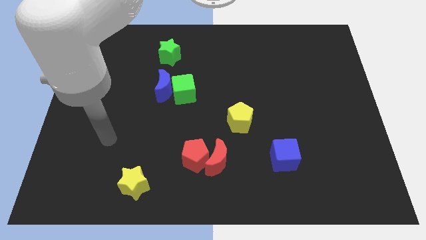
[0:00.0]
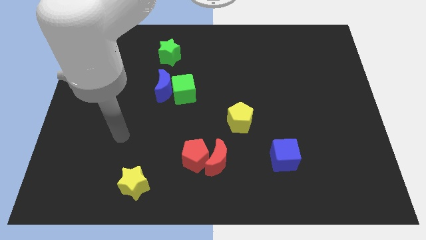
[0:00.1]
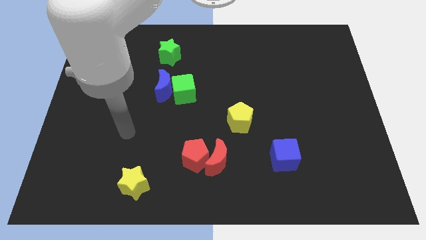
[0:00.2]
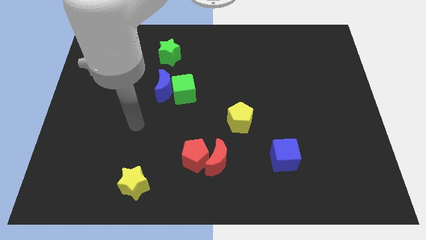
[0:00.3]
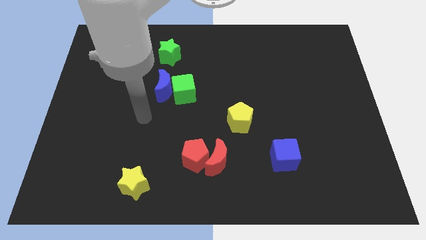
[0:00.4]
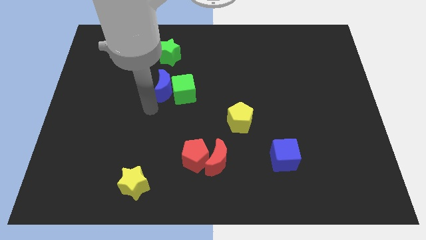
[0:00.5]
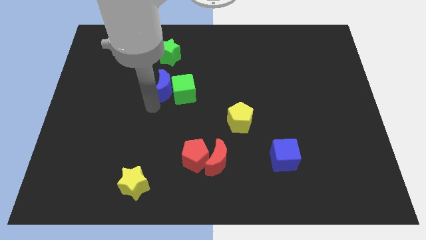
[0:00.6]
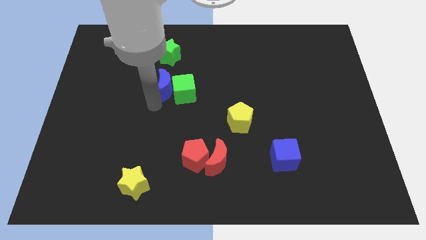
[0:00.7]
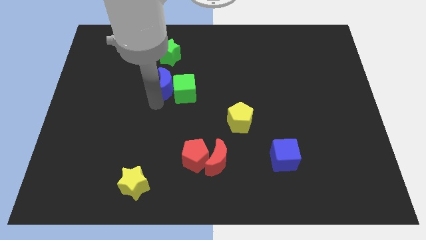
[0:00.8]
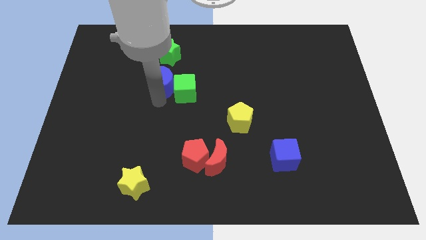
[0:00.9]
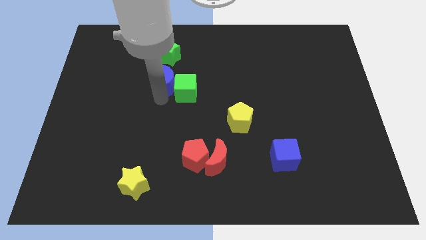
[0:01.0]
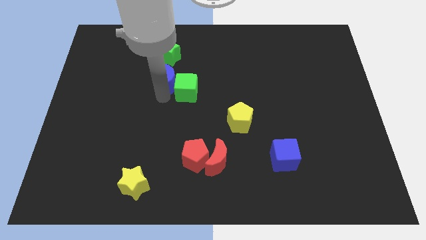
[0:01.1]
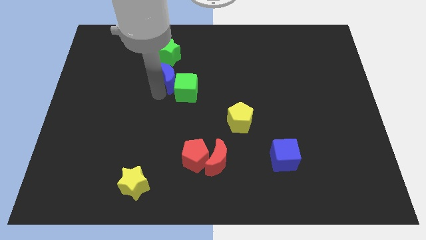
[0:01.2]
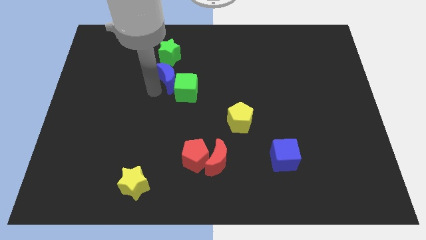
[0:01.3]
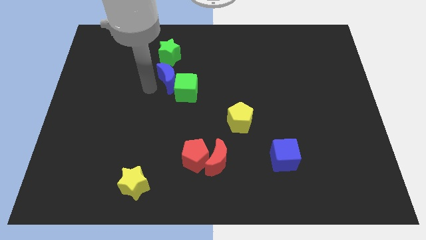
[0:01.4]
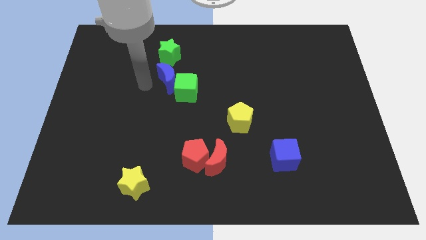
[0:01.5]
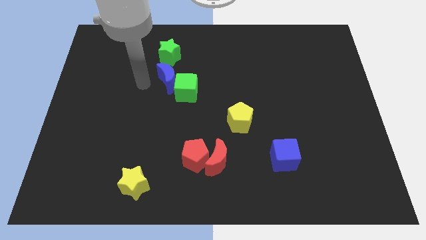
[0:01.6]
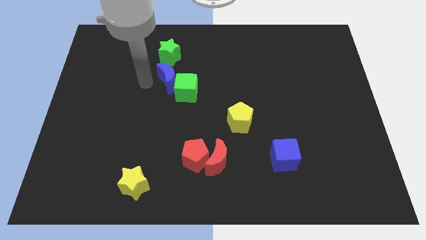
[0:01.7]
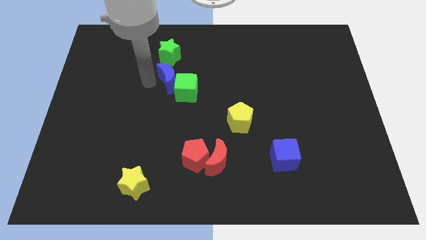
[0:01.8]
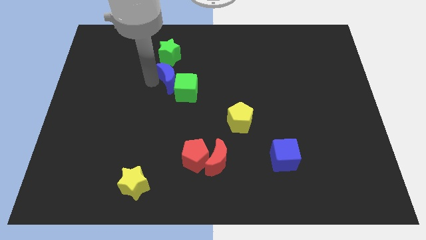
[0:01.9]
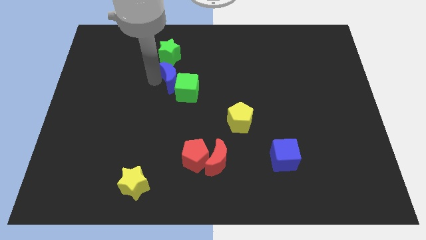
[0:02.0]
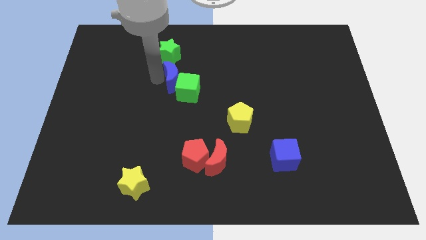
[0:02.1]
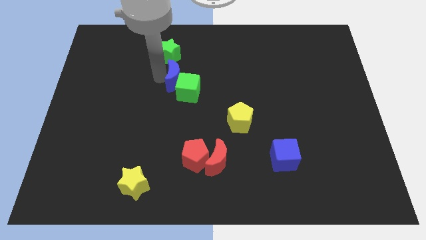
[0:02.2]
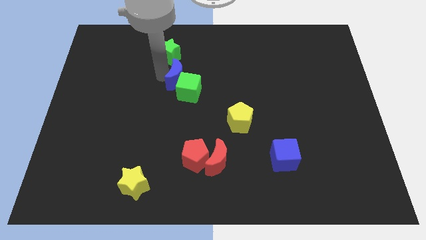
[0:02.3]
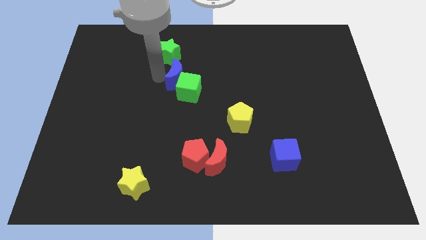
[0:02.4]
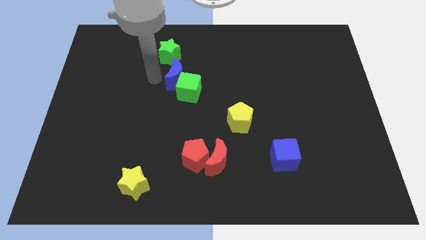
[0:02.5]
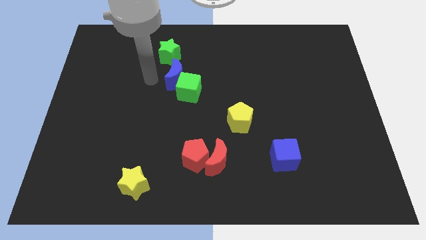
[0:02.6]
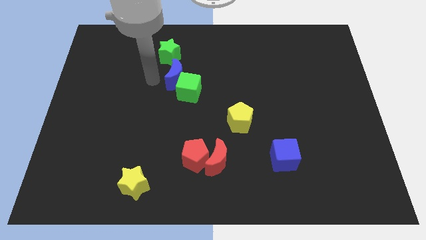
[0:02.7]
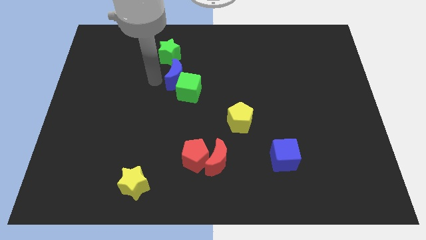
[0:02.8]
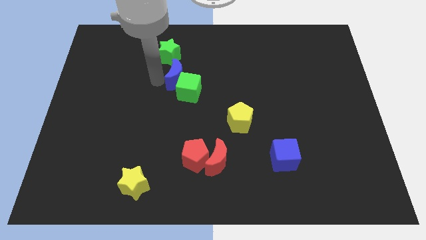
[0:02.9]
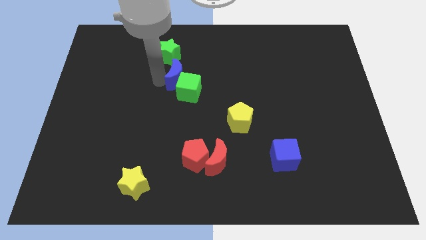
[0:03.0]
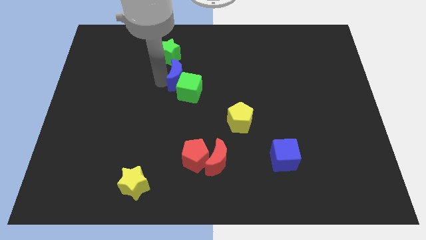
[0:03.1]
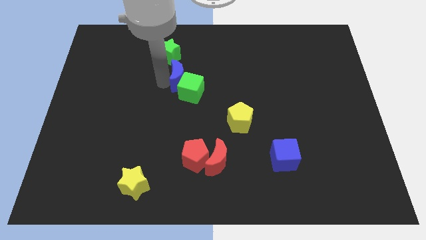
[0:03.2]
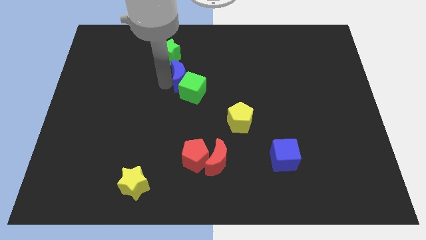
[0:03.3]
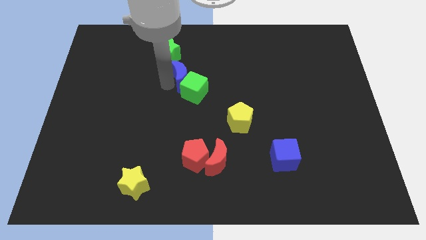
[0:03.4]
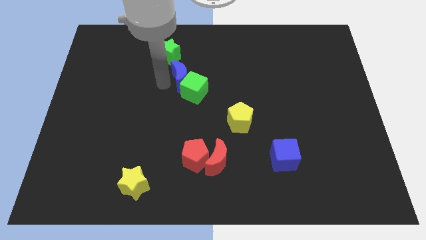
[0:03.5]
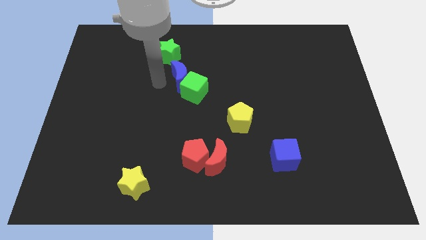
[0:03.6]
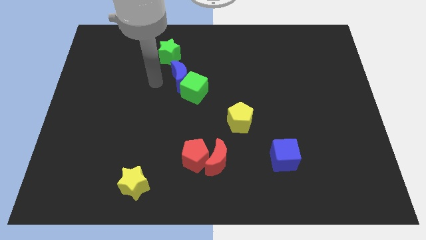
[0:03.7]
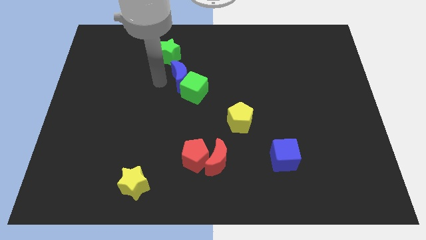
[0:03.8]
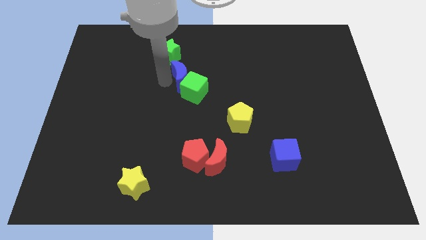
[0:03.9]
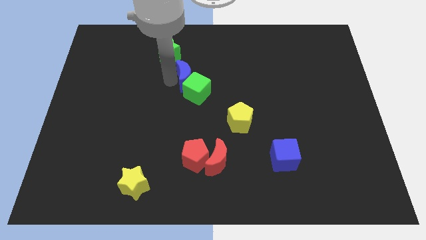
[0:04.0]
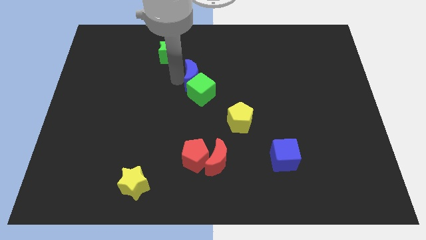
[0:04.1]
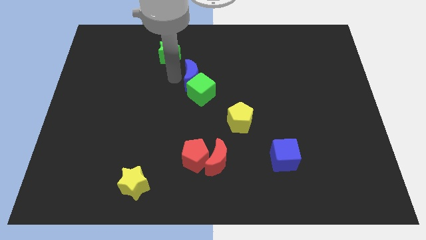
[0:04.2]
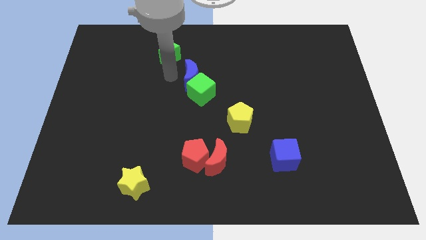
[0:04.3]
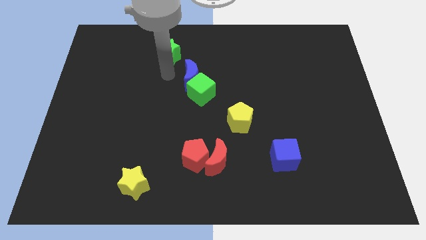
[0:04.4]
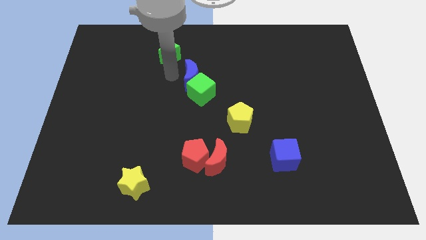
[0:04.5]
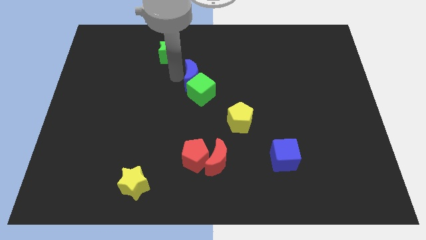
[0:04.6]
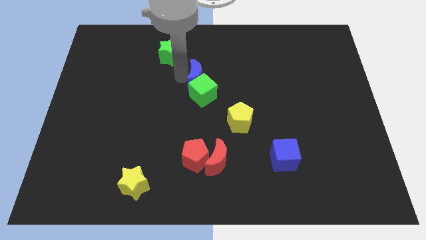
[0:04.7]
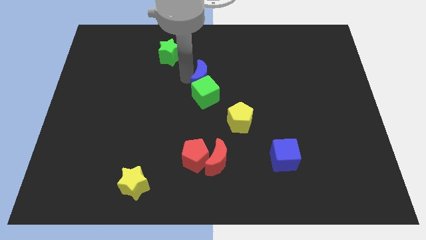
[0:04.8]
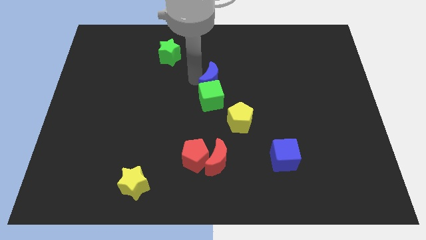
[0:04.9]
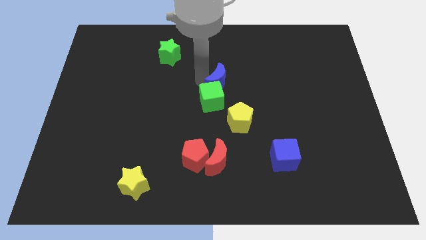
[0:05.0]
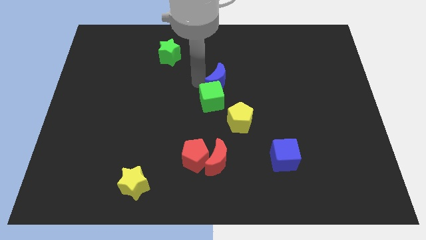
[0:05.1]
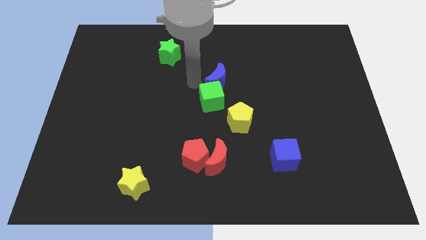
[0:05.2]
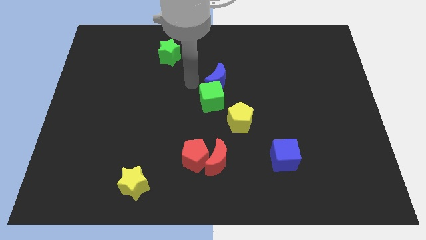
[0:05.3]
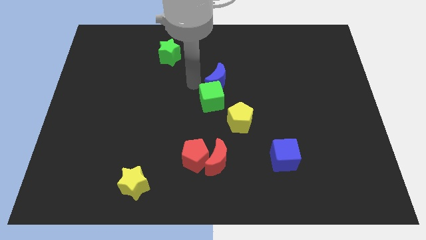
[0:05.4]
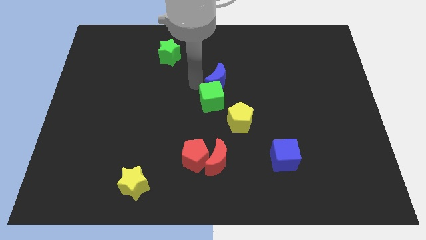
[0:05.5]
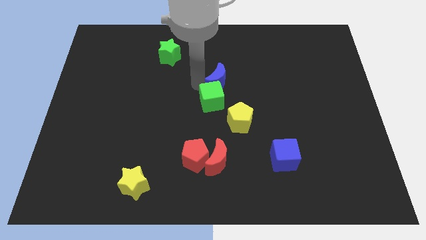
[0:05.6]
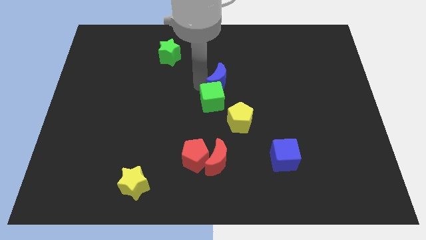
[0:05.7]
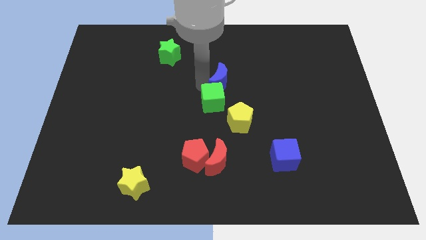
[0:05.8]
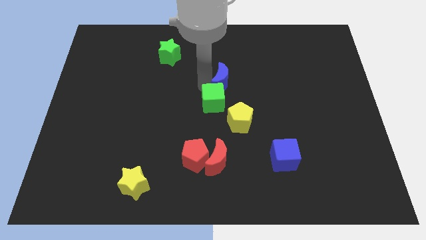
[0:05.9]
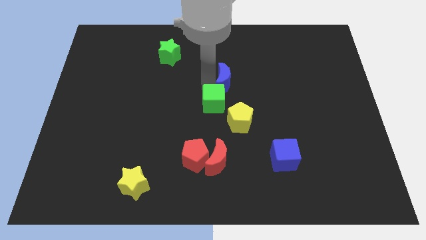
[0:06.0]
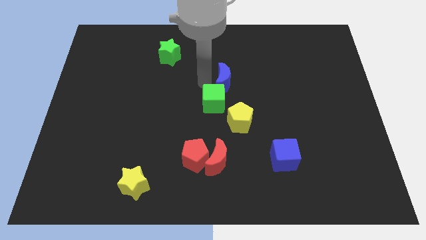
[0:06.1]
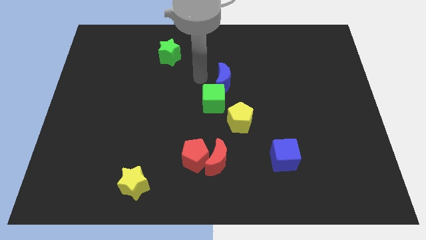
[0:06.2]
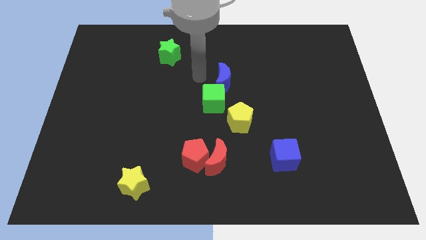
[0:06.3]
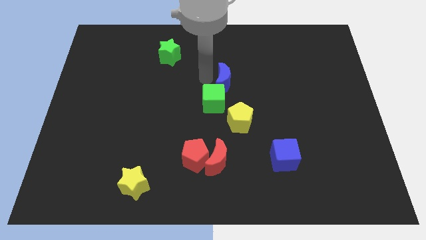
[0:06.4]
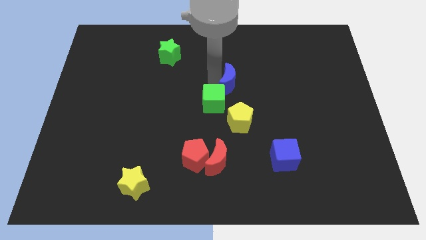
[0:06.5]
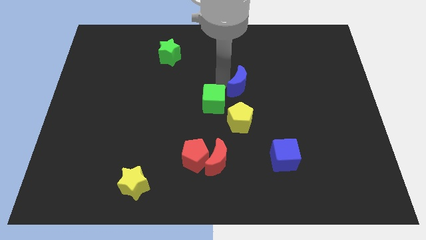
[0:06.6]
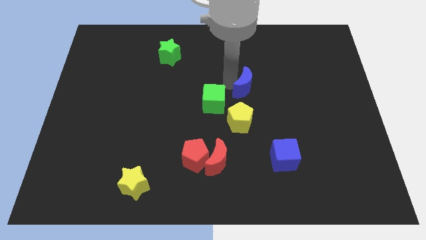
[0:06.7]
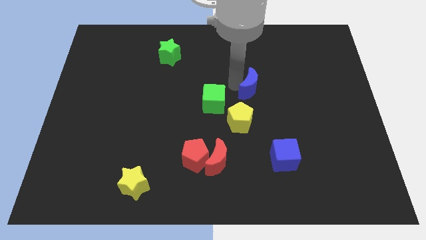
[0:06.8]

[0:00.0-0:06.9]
move the blue moon to the right

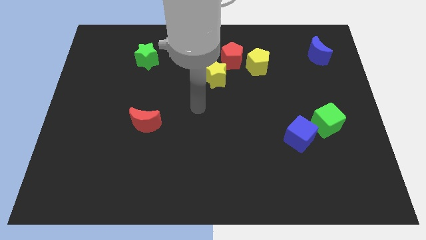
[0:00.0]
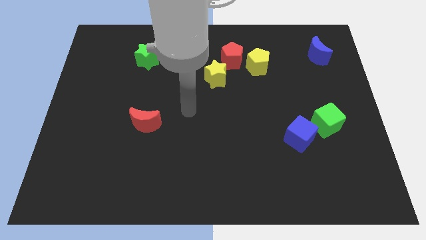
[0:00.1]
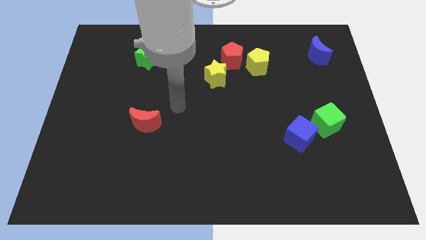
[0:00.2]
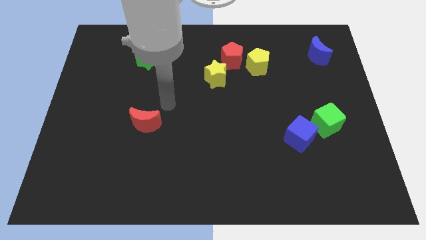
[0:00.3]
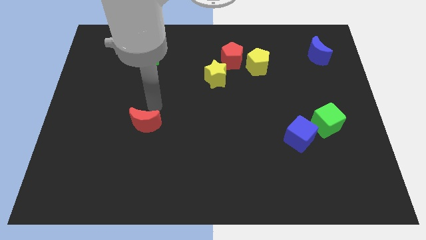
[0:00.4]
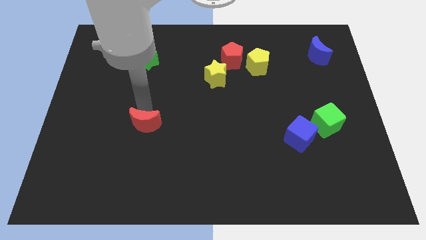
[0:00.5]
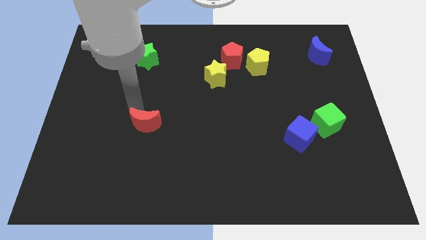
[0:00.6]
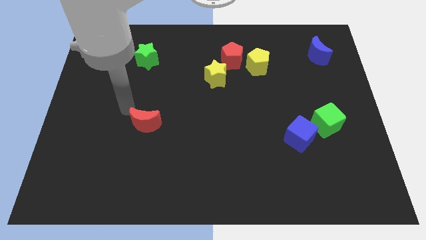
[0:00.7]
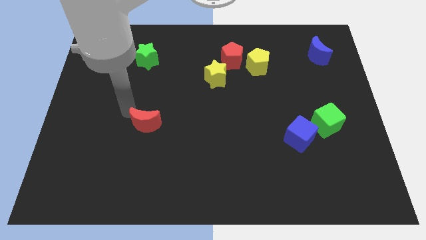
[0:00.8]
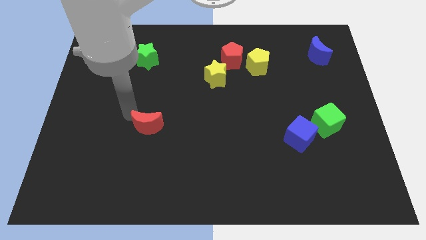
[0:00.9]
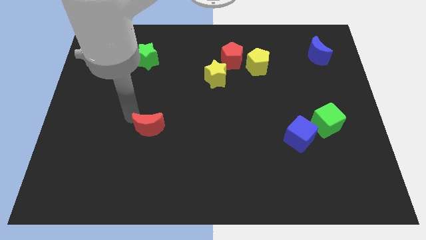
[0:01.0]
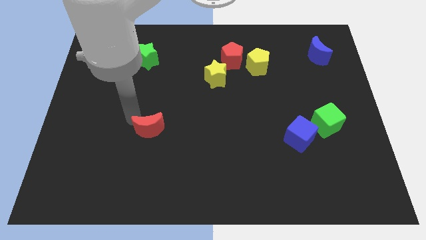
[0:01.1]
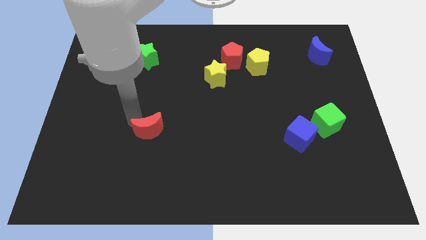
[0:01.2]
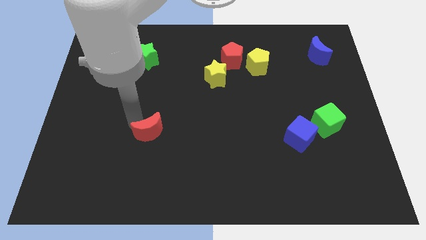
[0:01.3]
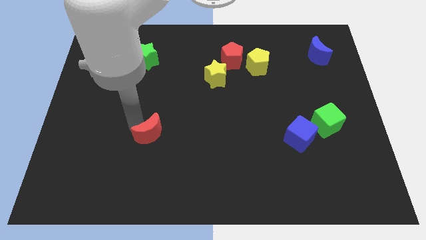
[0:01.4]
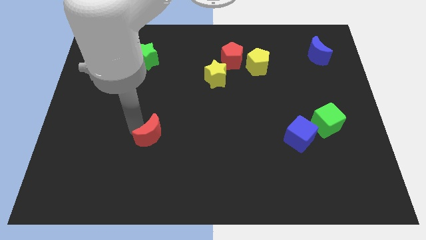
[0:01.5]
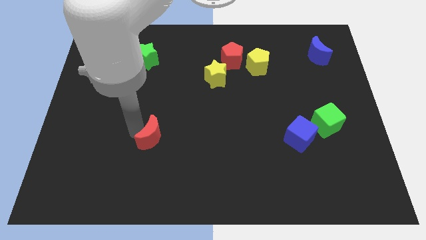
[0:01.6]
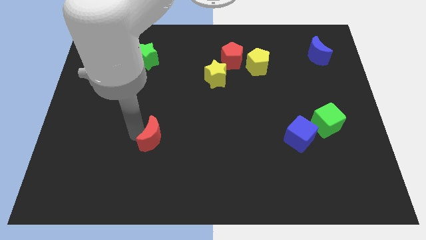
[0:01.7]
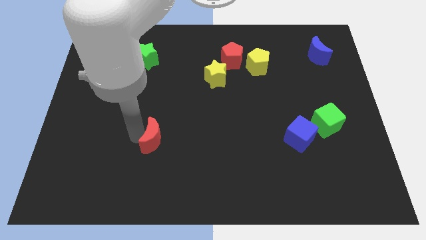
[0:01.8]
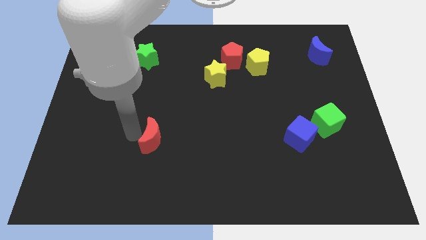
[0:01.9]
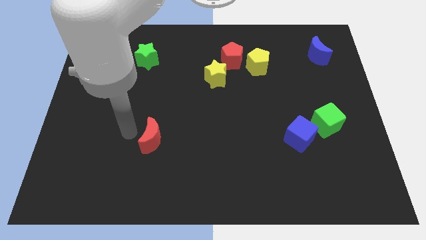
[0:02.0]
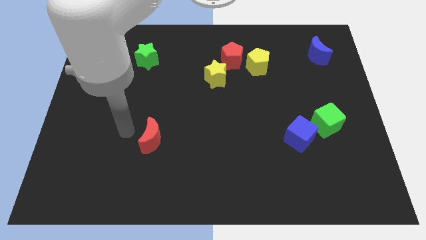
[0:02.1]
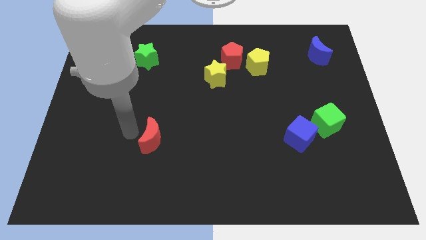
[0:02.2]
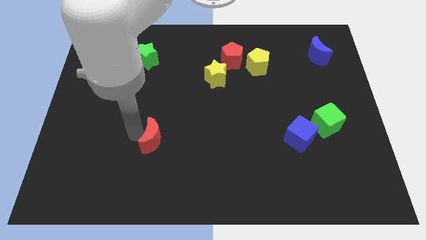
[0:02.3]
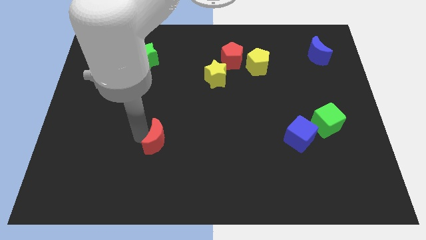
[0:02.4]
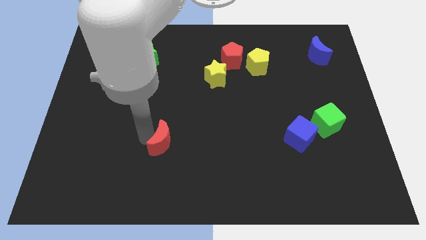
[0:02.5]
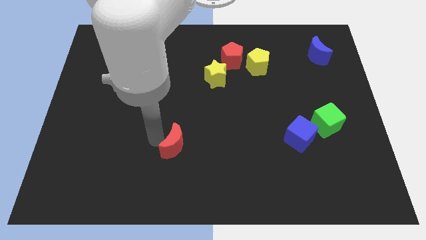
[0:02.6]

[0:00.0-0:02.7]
slightly move the red moon down and to the right
